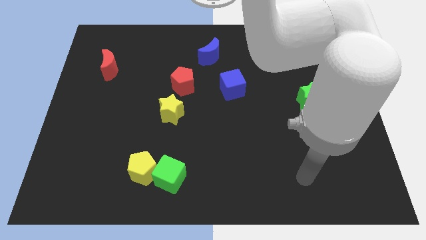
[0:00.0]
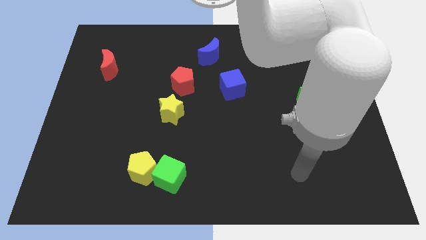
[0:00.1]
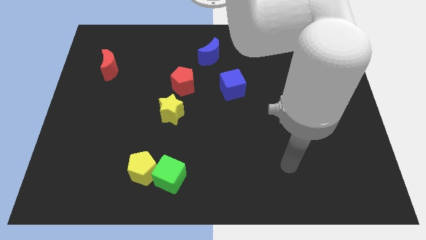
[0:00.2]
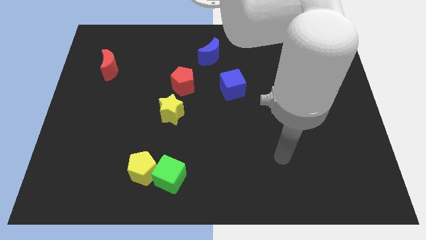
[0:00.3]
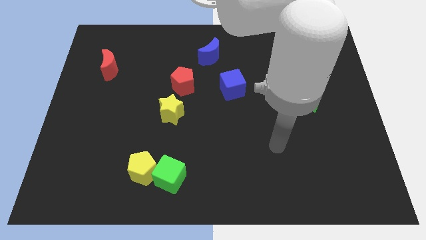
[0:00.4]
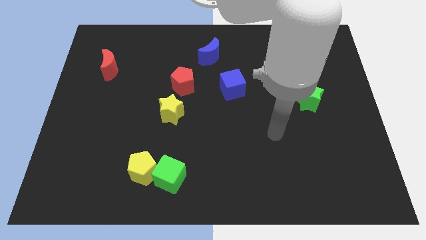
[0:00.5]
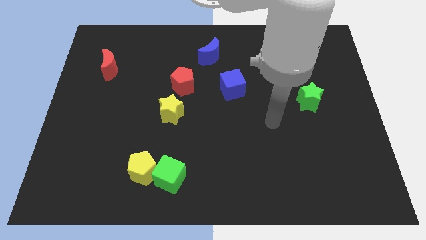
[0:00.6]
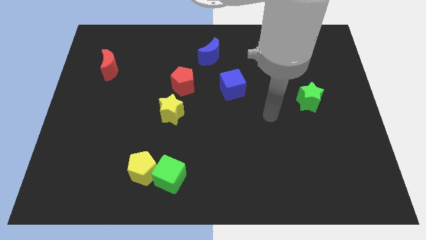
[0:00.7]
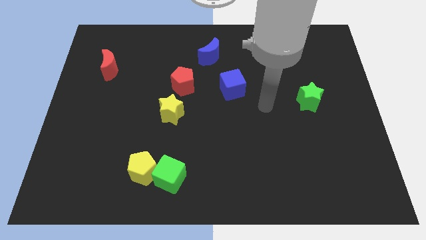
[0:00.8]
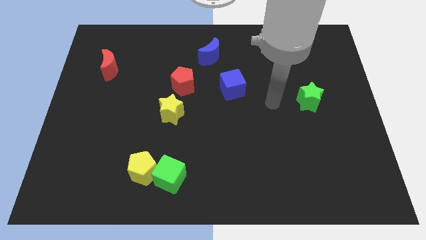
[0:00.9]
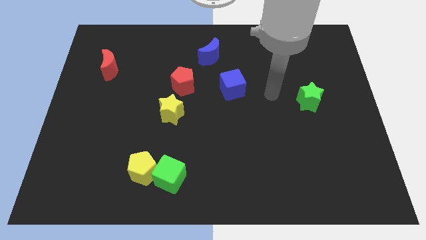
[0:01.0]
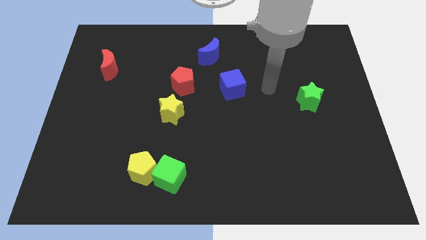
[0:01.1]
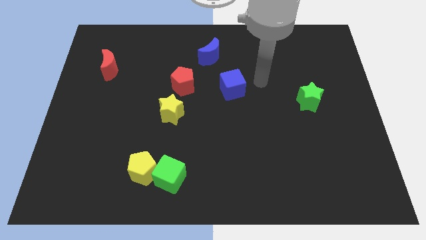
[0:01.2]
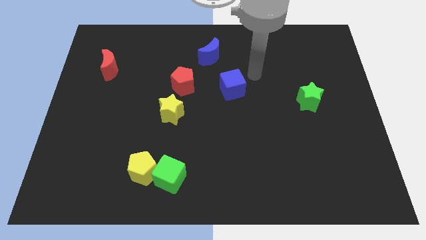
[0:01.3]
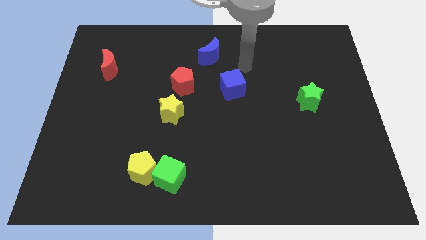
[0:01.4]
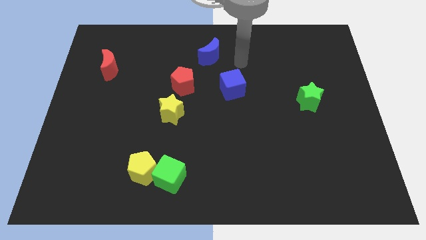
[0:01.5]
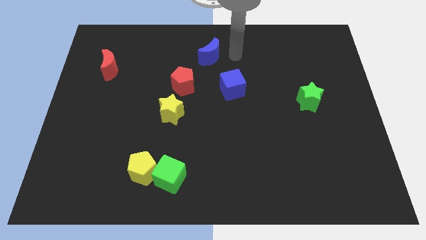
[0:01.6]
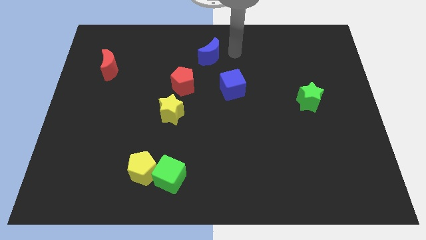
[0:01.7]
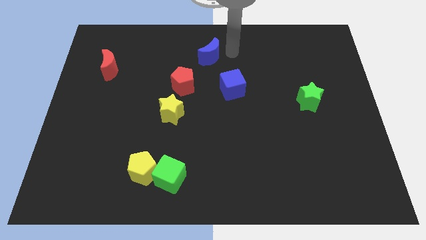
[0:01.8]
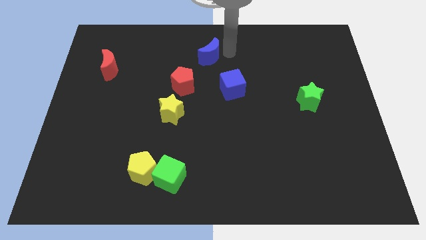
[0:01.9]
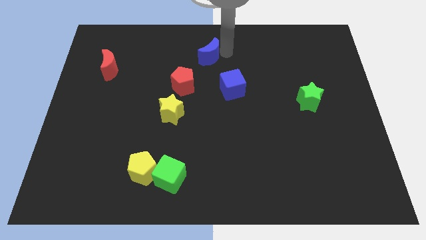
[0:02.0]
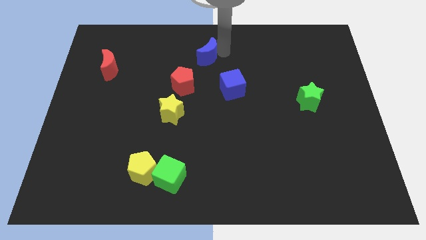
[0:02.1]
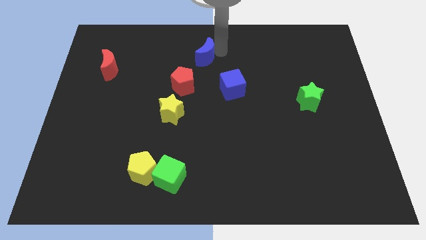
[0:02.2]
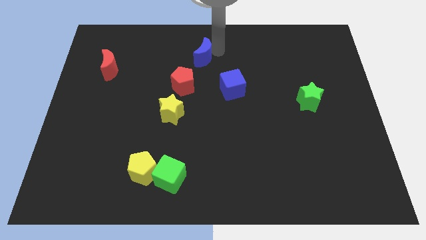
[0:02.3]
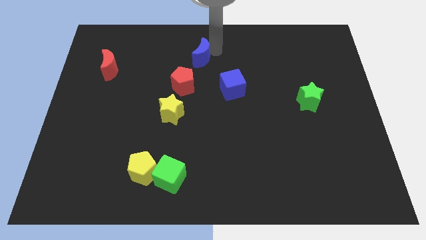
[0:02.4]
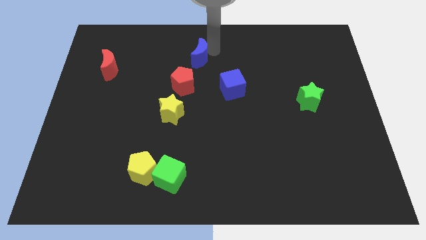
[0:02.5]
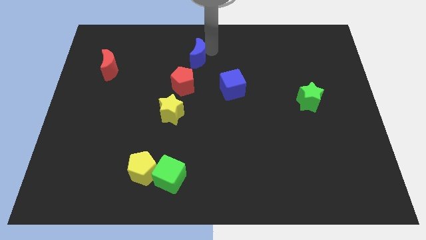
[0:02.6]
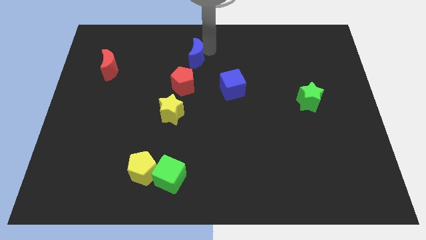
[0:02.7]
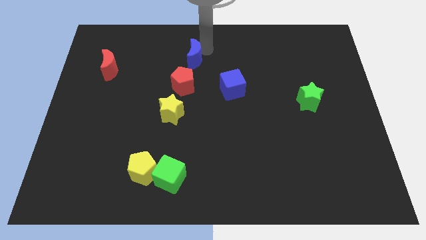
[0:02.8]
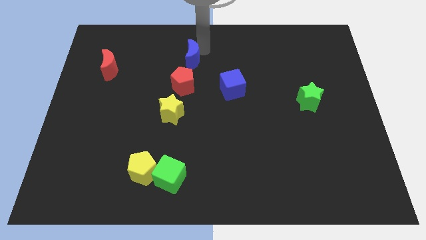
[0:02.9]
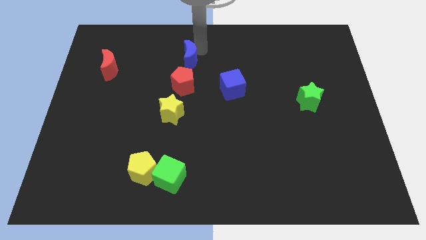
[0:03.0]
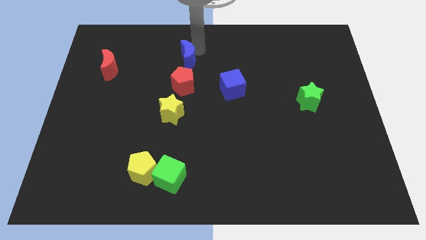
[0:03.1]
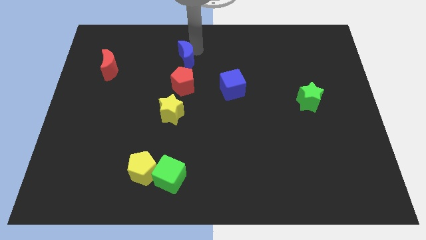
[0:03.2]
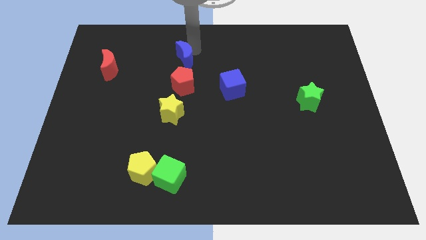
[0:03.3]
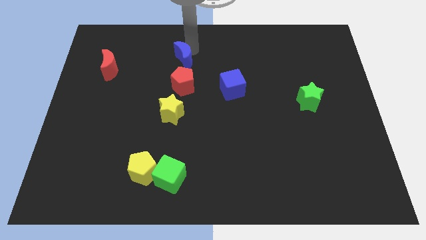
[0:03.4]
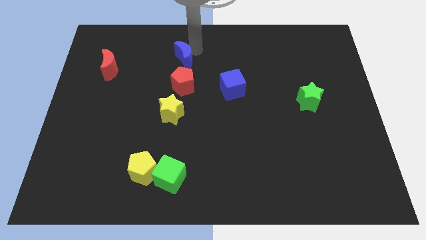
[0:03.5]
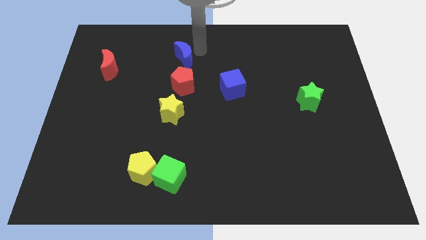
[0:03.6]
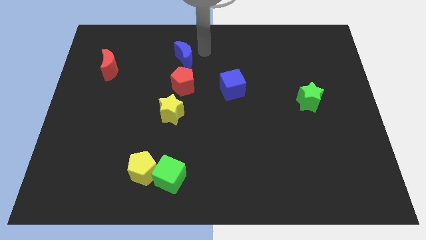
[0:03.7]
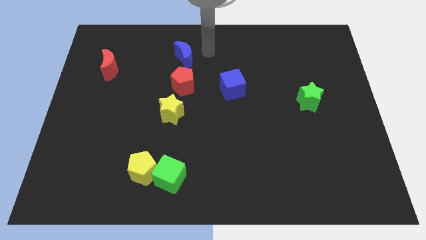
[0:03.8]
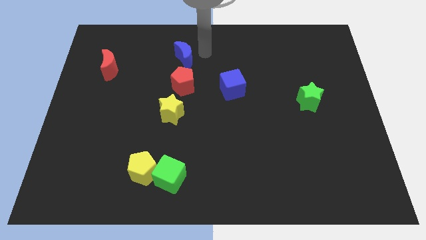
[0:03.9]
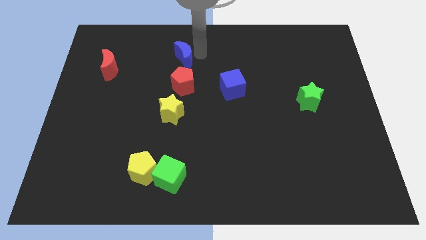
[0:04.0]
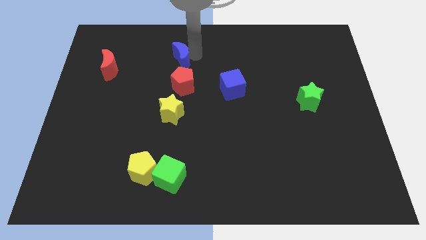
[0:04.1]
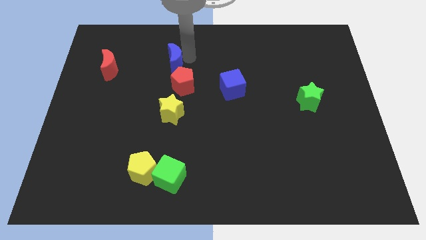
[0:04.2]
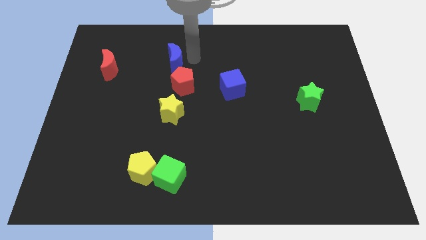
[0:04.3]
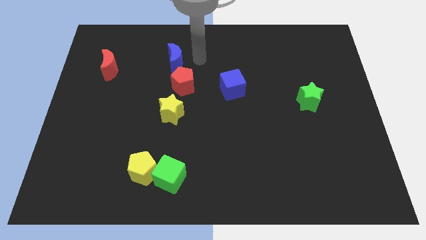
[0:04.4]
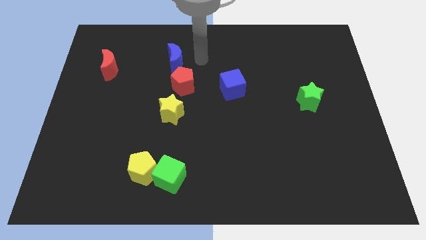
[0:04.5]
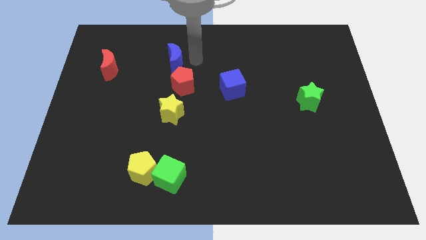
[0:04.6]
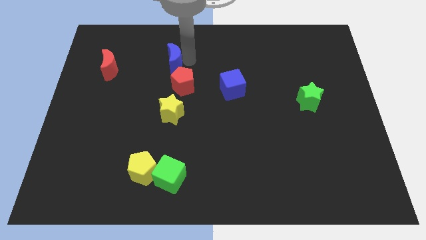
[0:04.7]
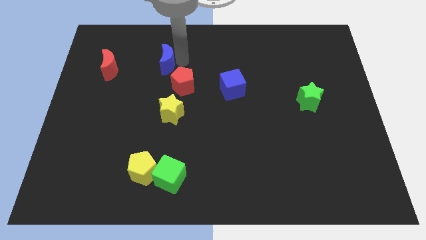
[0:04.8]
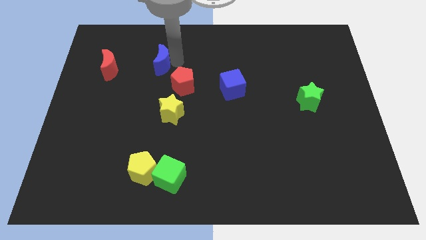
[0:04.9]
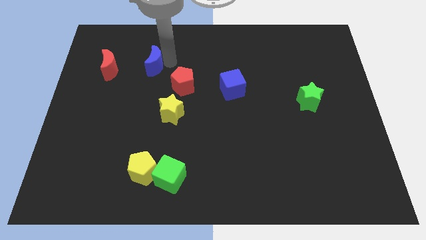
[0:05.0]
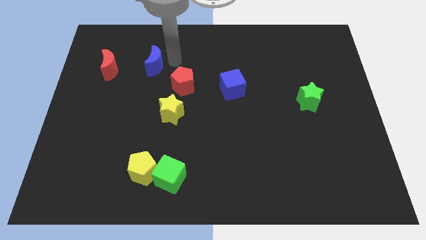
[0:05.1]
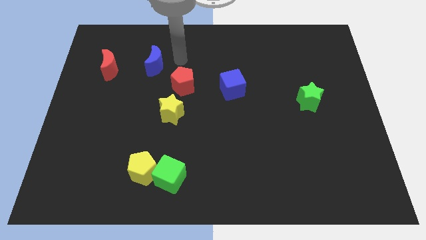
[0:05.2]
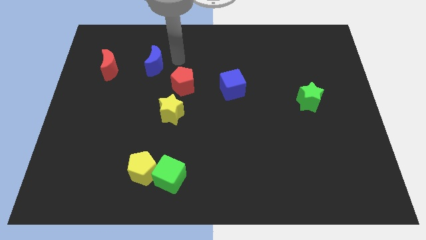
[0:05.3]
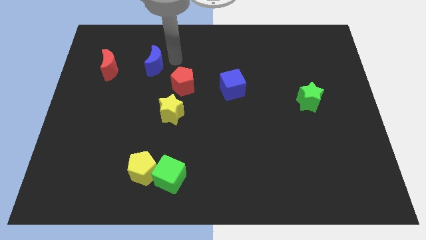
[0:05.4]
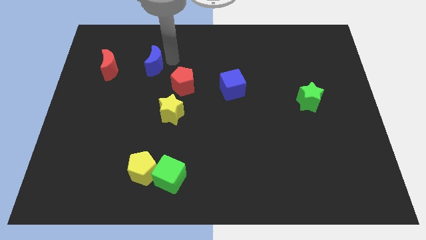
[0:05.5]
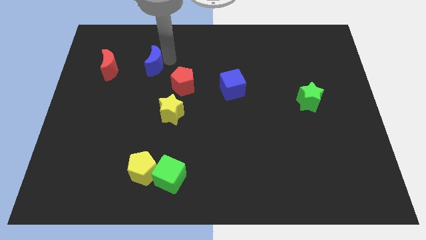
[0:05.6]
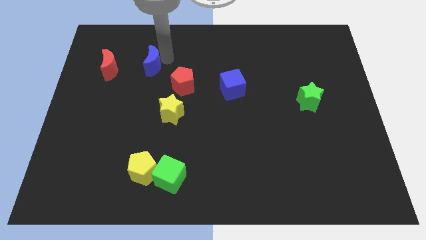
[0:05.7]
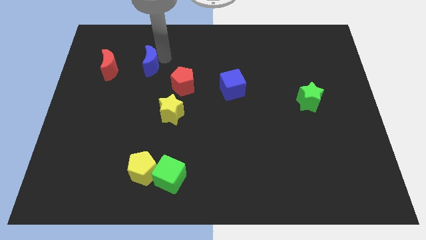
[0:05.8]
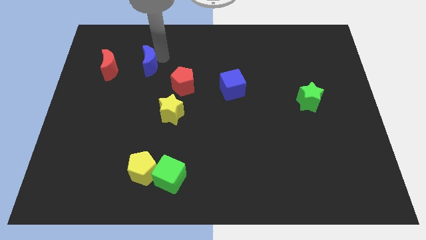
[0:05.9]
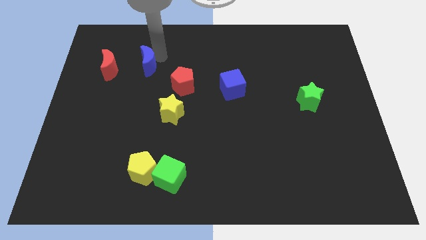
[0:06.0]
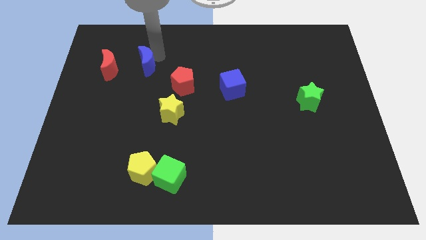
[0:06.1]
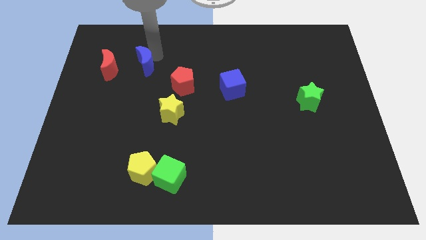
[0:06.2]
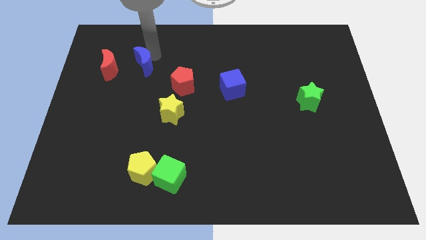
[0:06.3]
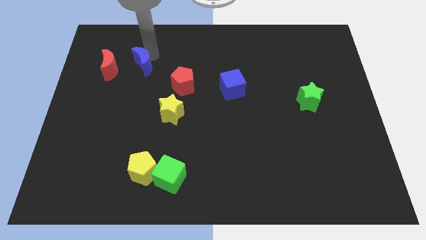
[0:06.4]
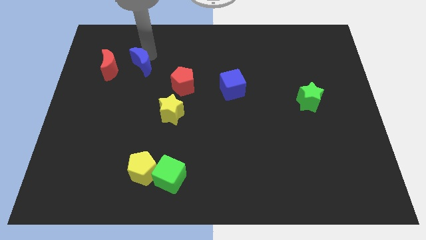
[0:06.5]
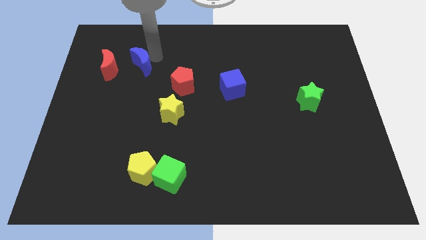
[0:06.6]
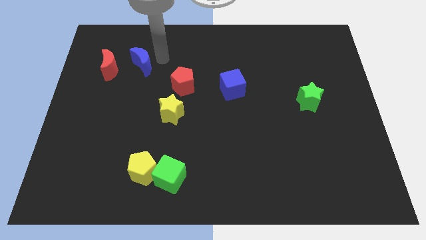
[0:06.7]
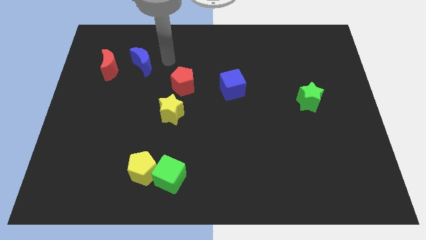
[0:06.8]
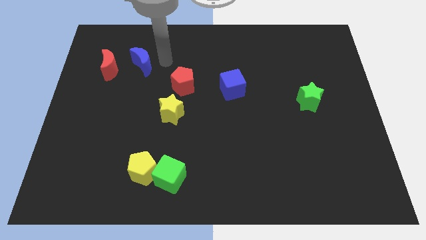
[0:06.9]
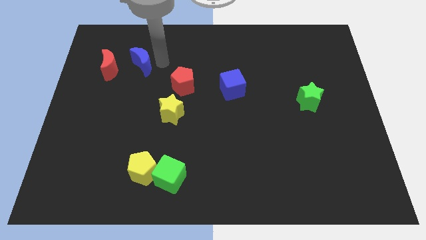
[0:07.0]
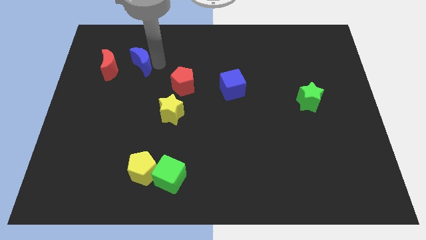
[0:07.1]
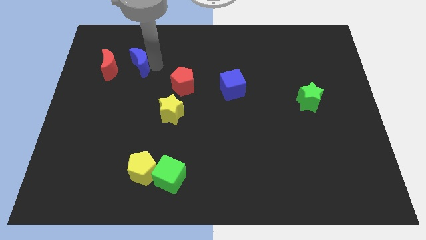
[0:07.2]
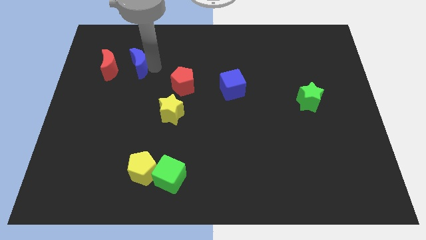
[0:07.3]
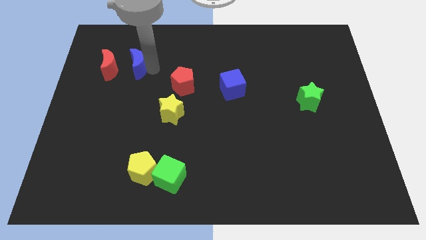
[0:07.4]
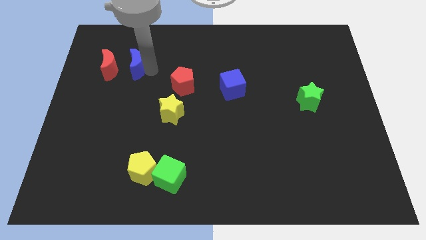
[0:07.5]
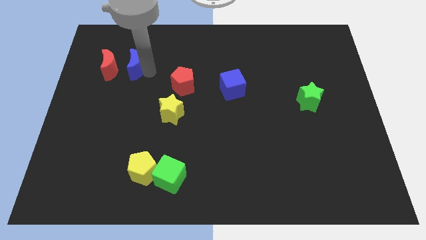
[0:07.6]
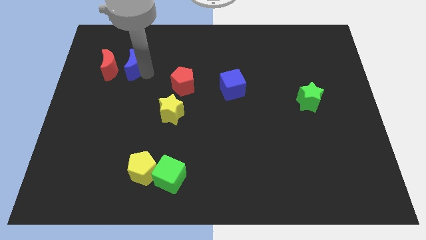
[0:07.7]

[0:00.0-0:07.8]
put the blue moon towards the red moon
